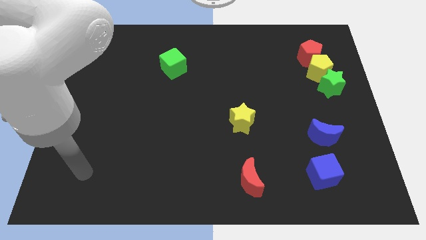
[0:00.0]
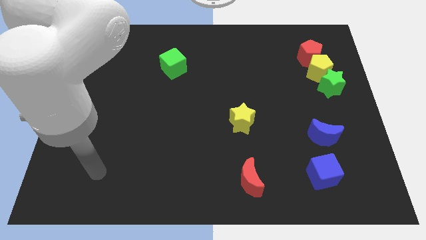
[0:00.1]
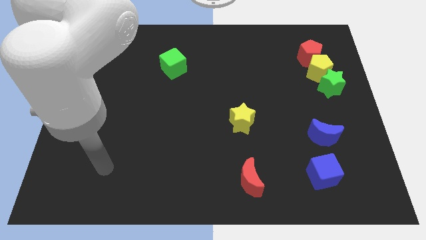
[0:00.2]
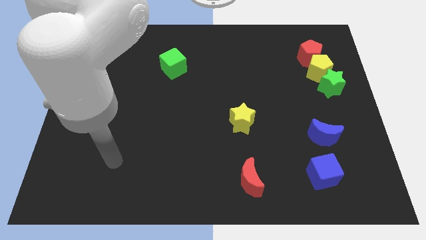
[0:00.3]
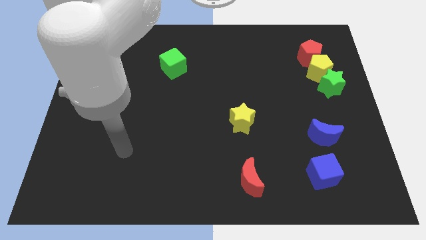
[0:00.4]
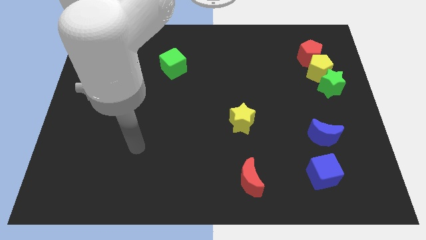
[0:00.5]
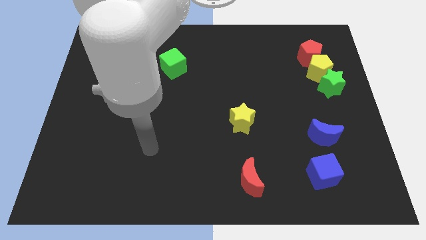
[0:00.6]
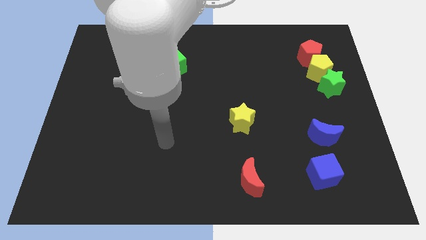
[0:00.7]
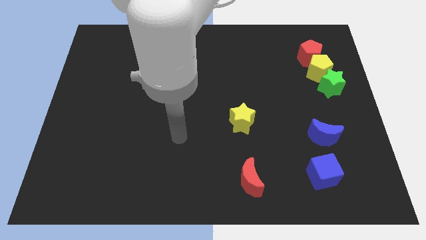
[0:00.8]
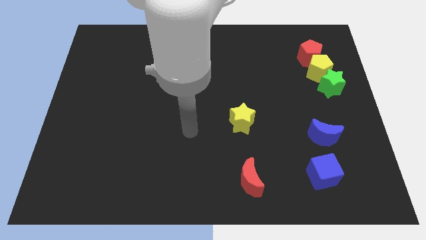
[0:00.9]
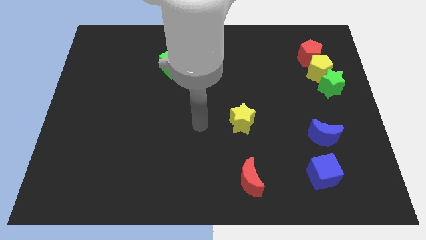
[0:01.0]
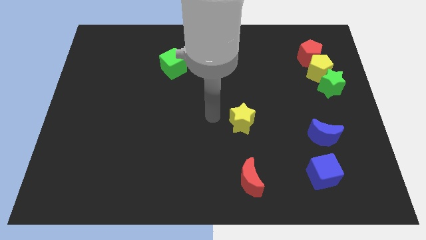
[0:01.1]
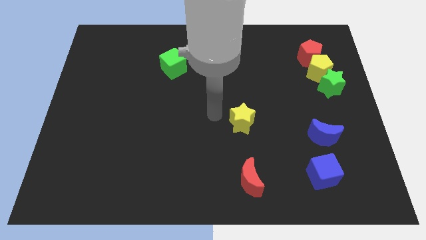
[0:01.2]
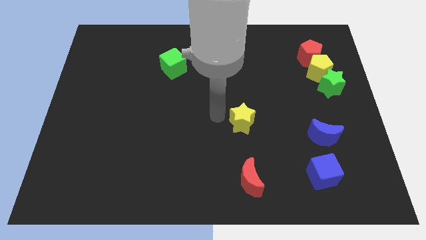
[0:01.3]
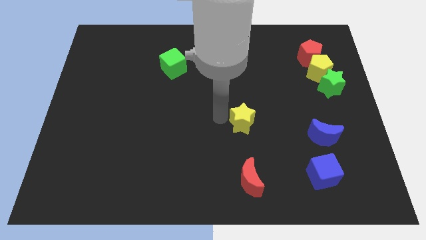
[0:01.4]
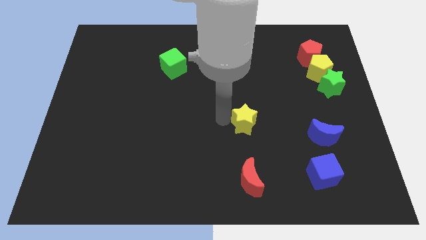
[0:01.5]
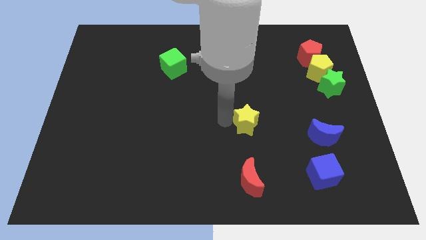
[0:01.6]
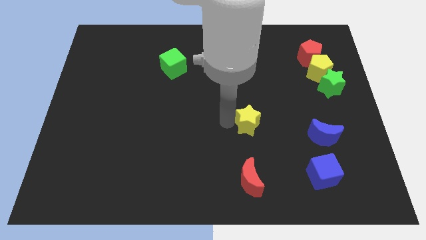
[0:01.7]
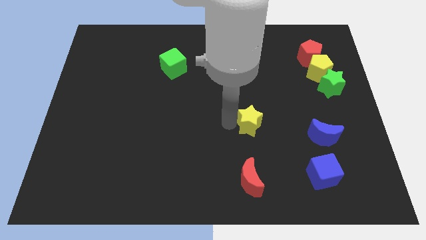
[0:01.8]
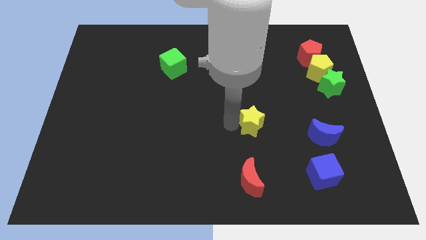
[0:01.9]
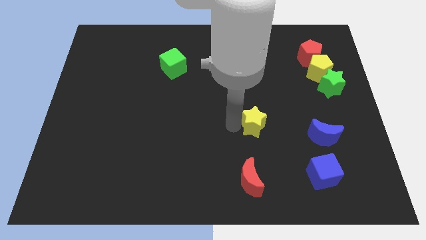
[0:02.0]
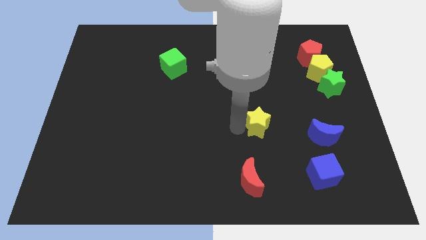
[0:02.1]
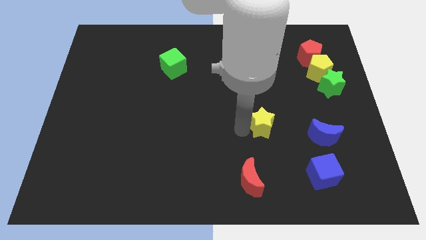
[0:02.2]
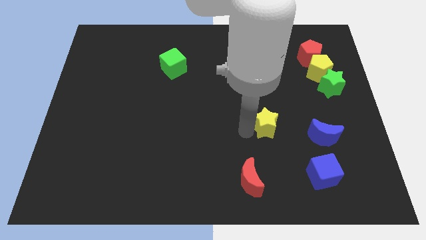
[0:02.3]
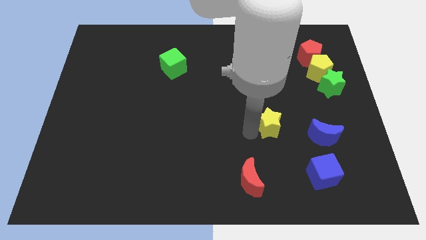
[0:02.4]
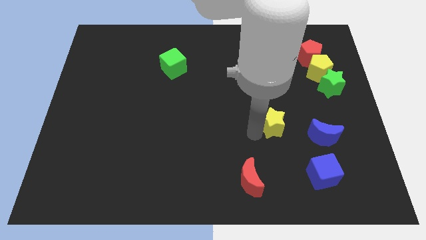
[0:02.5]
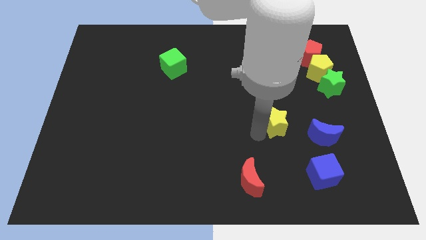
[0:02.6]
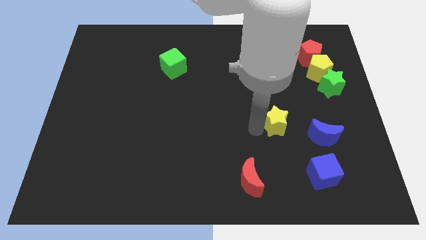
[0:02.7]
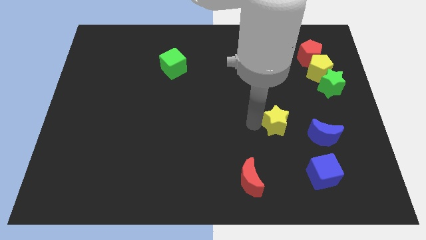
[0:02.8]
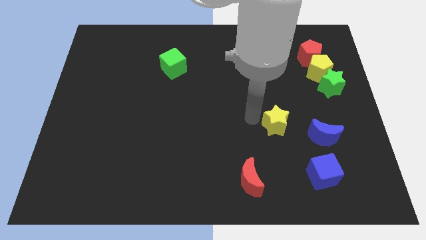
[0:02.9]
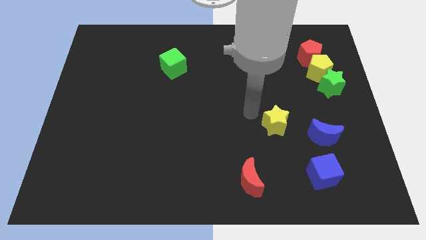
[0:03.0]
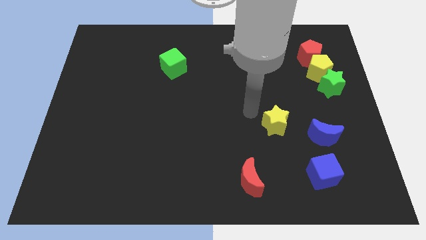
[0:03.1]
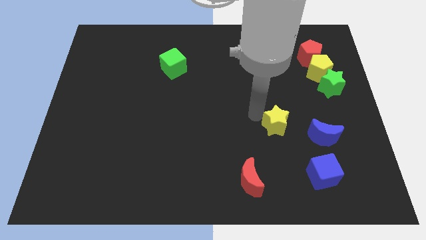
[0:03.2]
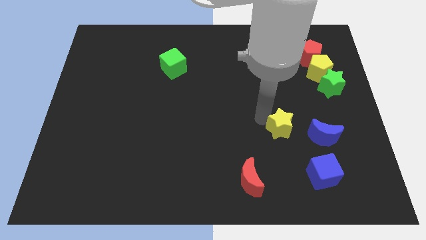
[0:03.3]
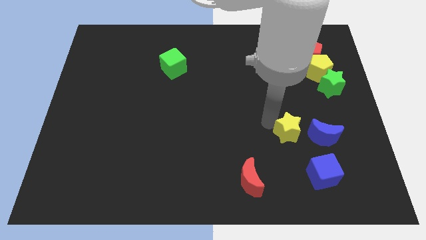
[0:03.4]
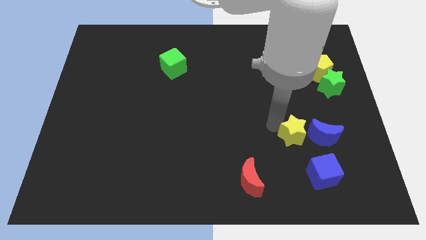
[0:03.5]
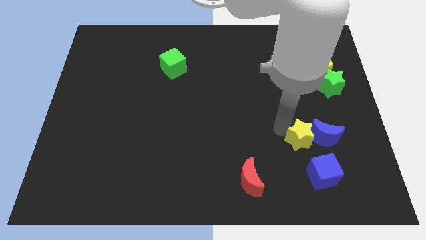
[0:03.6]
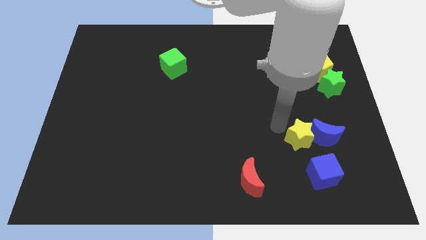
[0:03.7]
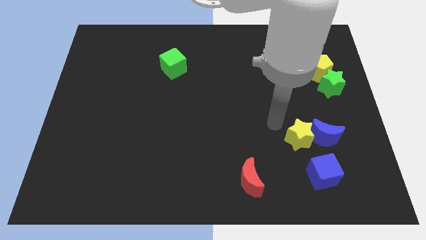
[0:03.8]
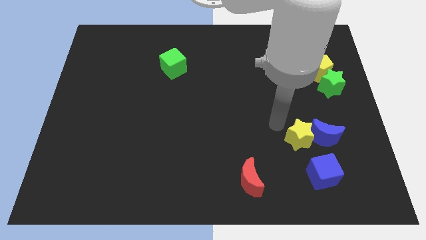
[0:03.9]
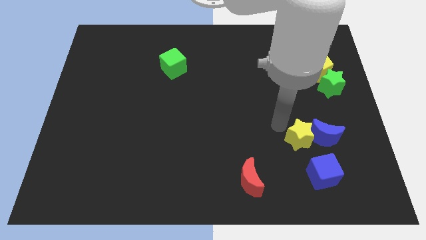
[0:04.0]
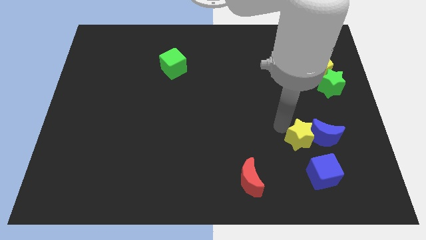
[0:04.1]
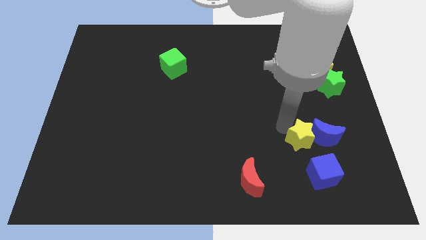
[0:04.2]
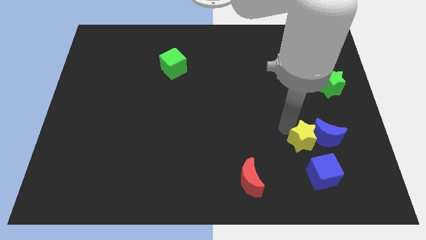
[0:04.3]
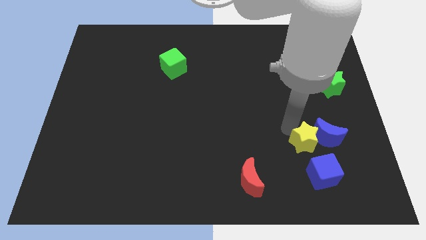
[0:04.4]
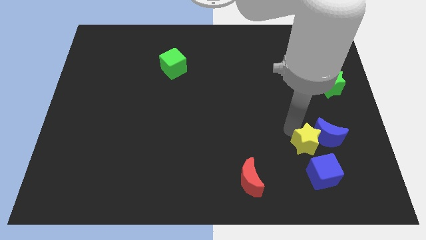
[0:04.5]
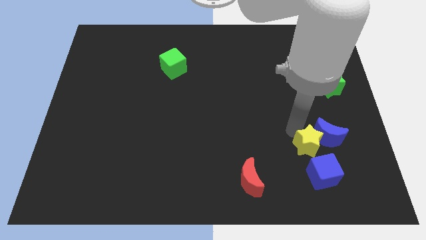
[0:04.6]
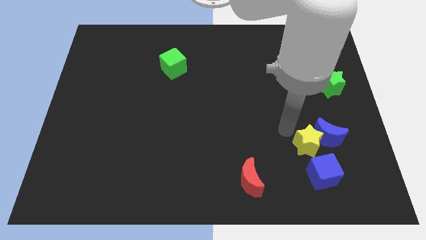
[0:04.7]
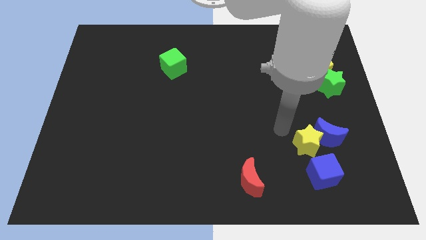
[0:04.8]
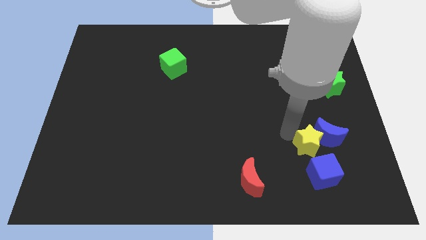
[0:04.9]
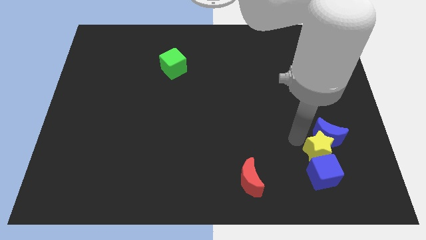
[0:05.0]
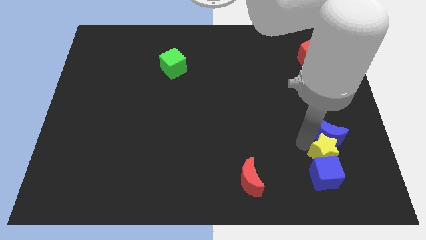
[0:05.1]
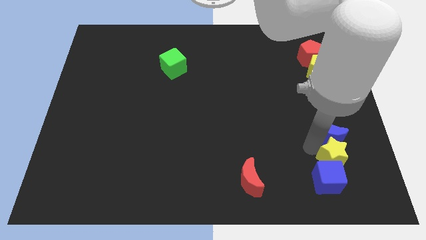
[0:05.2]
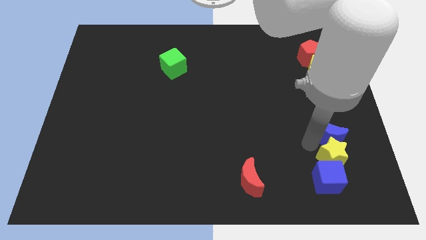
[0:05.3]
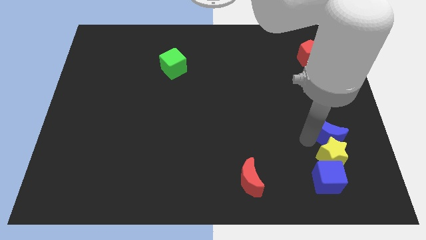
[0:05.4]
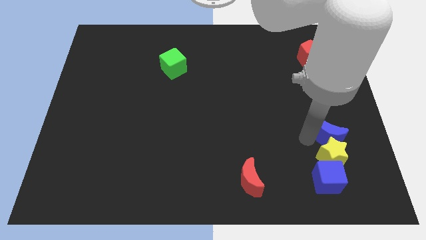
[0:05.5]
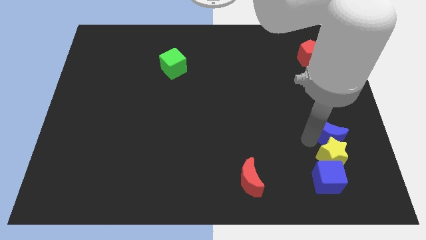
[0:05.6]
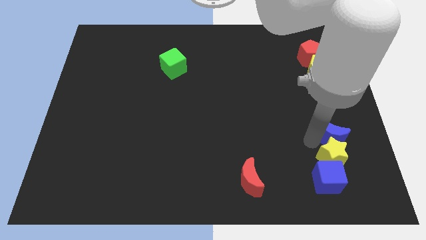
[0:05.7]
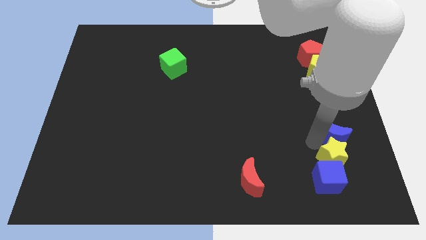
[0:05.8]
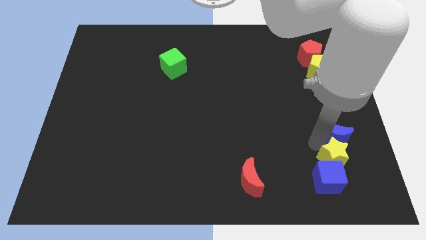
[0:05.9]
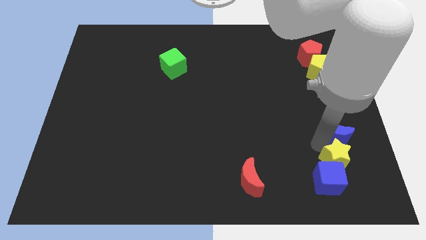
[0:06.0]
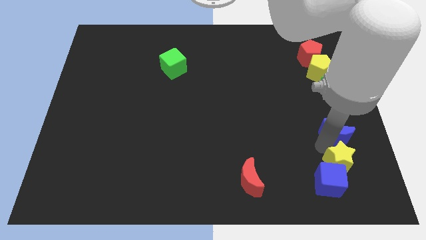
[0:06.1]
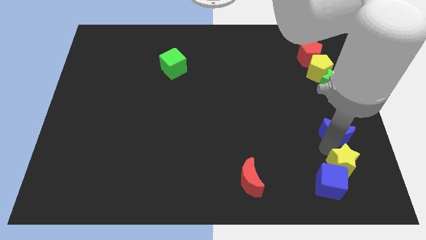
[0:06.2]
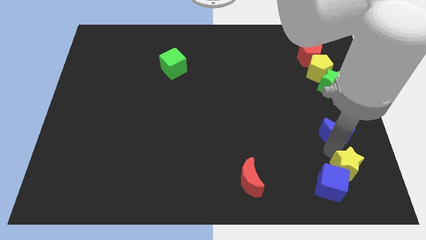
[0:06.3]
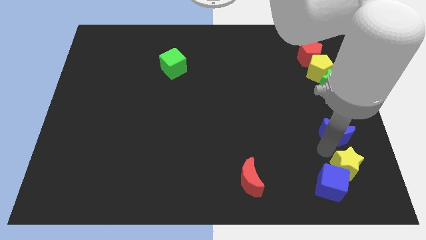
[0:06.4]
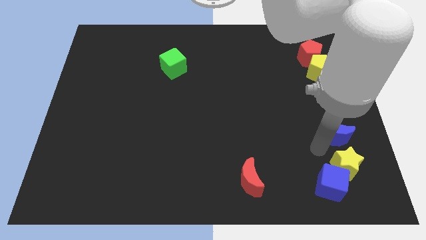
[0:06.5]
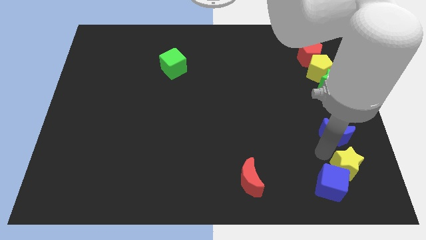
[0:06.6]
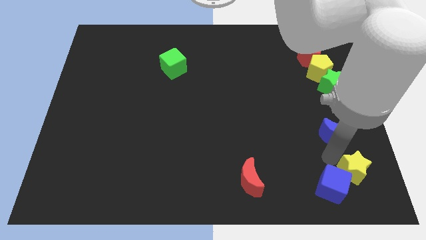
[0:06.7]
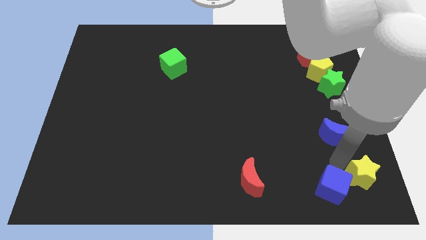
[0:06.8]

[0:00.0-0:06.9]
put the yellow star to the bottom right
